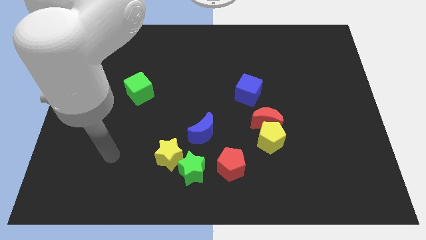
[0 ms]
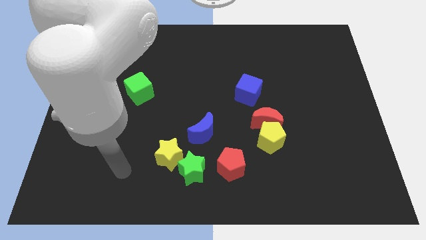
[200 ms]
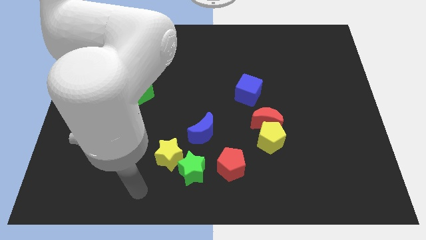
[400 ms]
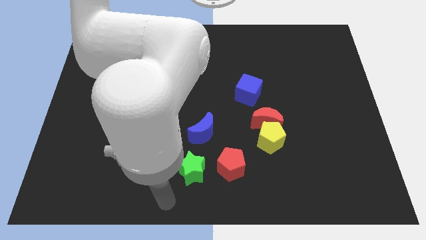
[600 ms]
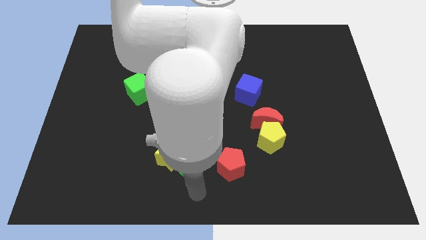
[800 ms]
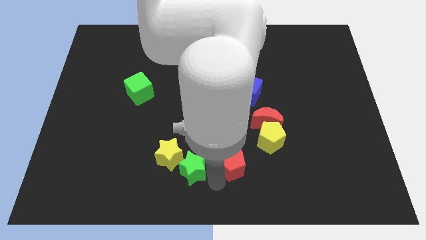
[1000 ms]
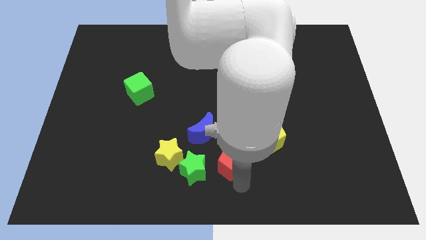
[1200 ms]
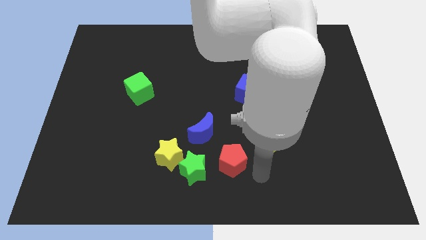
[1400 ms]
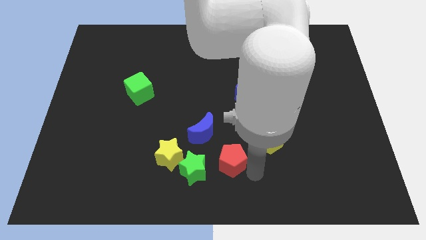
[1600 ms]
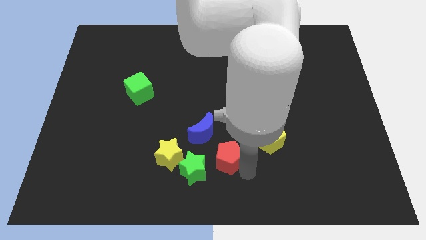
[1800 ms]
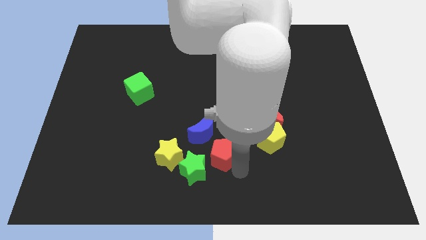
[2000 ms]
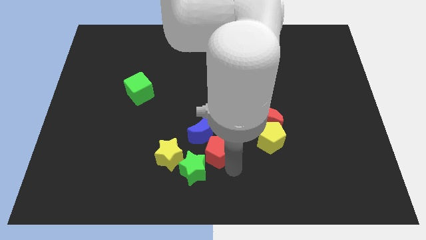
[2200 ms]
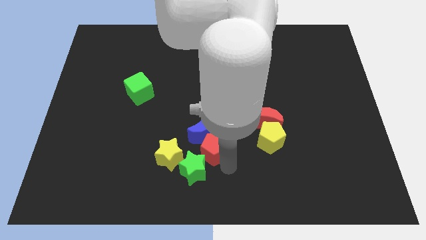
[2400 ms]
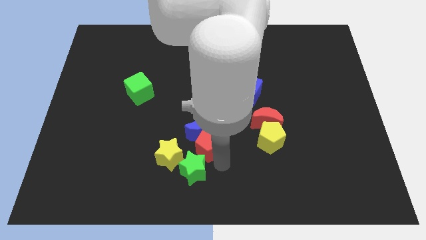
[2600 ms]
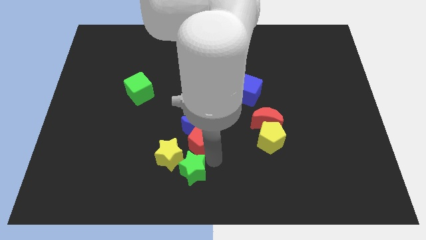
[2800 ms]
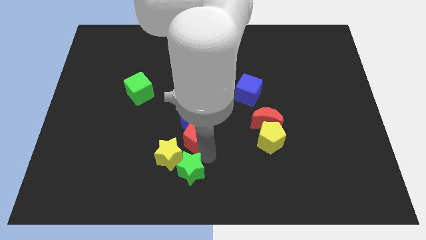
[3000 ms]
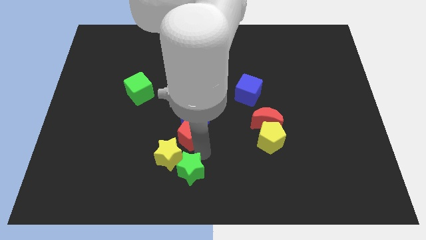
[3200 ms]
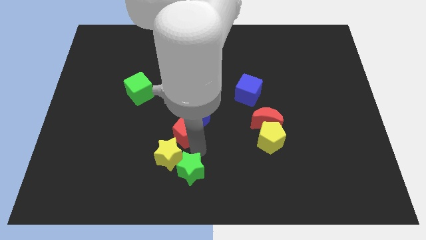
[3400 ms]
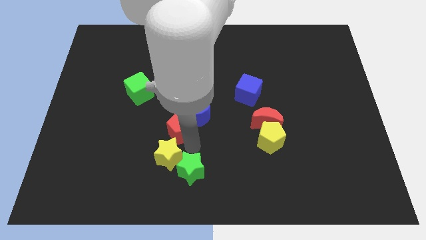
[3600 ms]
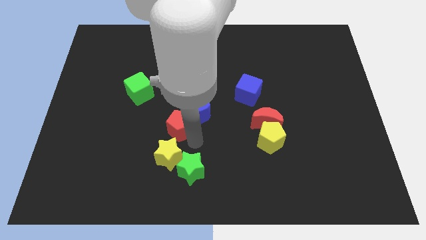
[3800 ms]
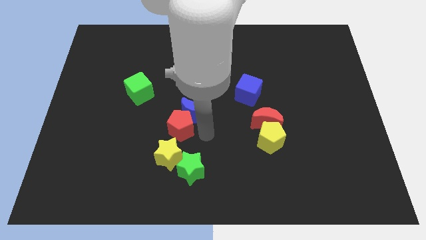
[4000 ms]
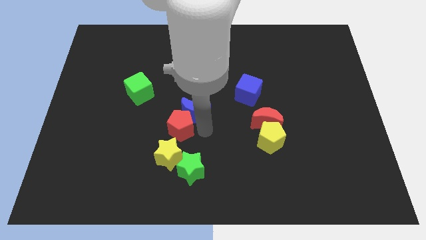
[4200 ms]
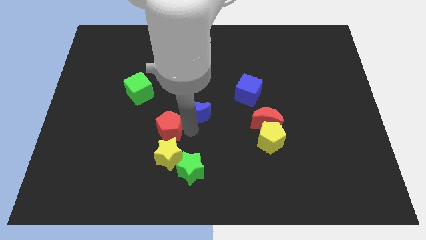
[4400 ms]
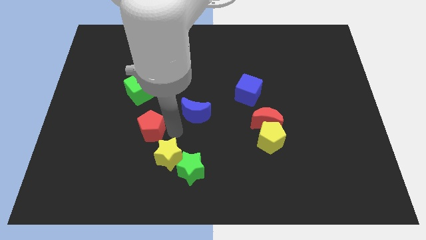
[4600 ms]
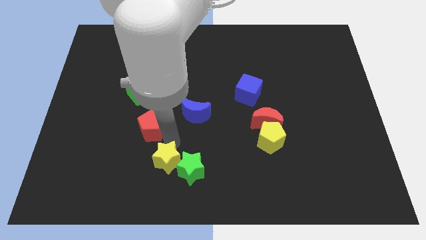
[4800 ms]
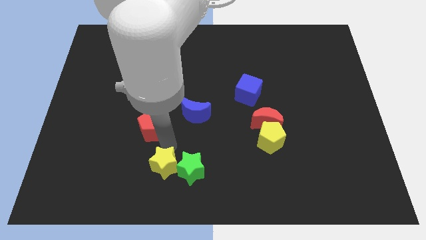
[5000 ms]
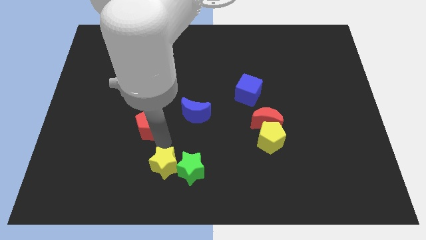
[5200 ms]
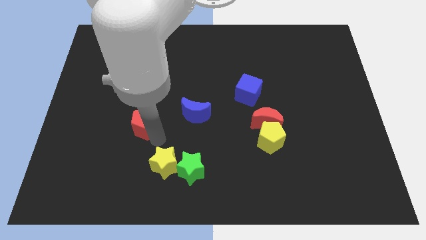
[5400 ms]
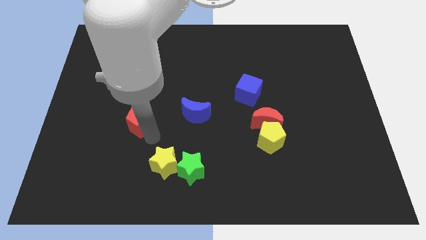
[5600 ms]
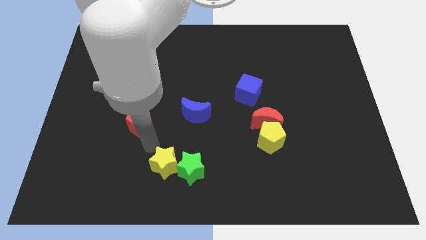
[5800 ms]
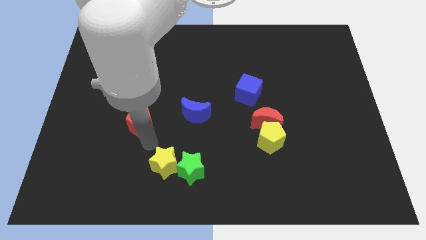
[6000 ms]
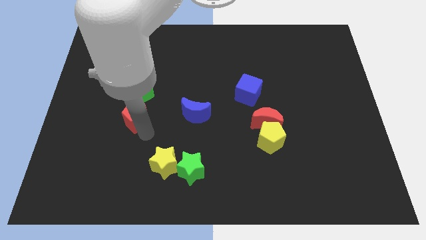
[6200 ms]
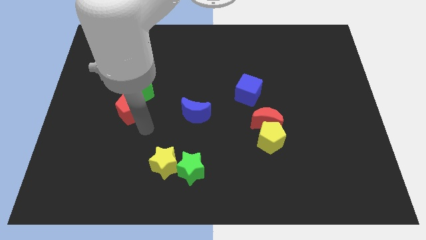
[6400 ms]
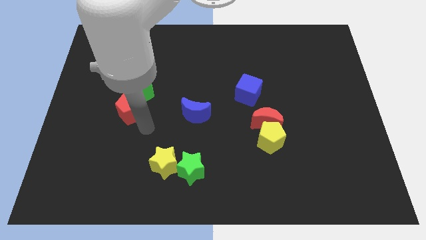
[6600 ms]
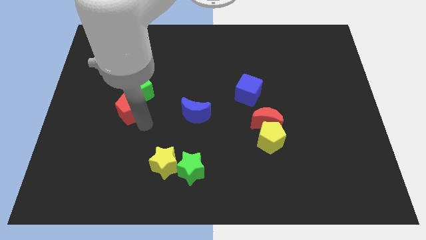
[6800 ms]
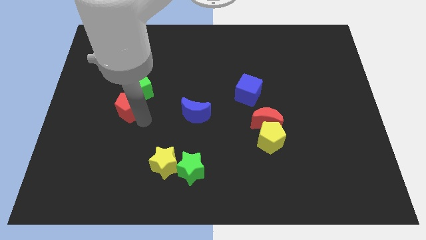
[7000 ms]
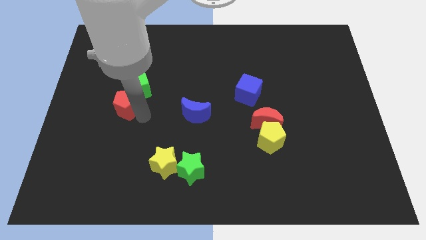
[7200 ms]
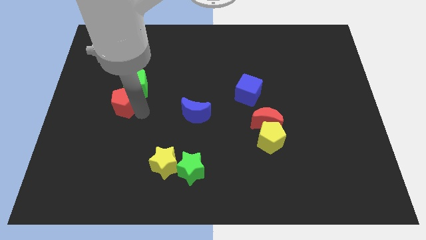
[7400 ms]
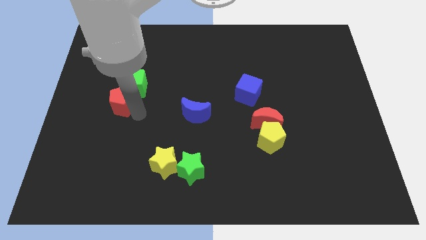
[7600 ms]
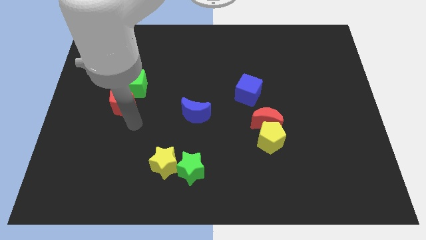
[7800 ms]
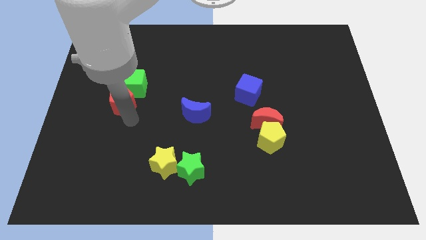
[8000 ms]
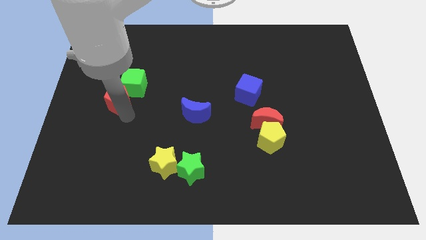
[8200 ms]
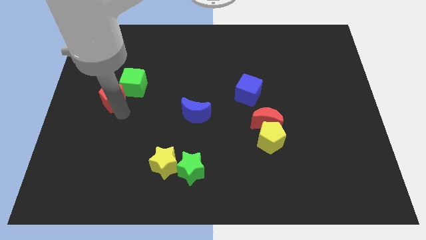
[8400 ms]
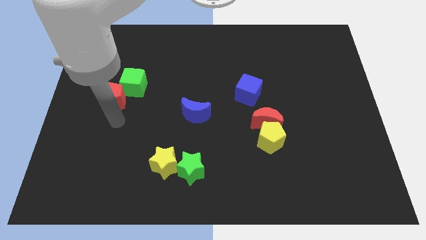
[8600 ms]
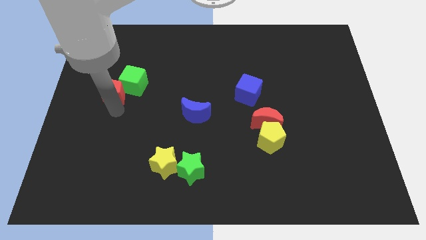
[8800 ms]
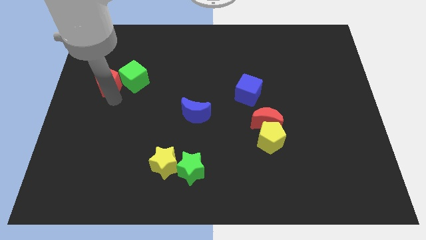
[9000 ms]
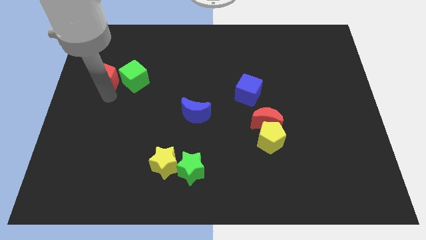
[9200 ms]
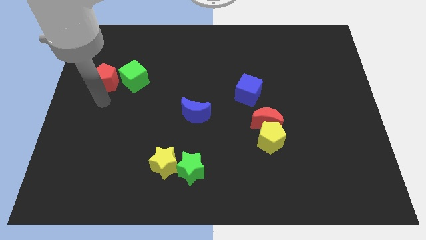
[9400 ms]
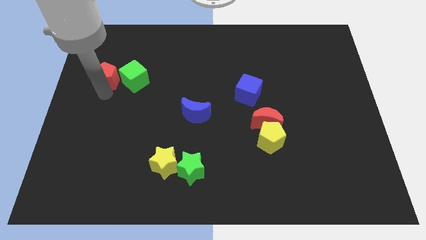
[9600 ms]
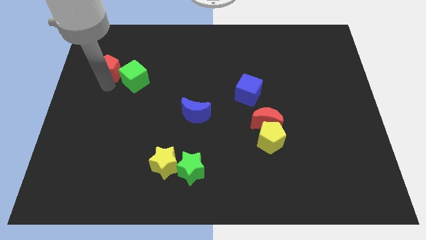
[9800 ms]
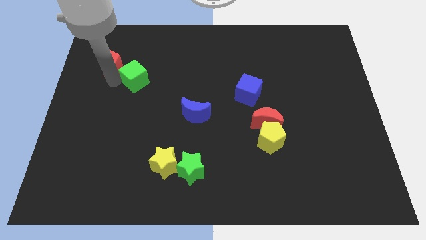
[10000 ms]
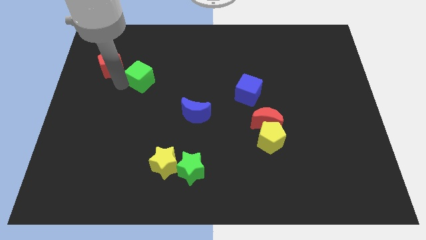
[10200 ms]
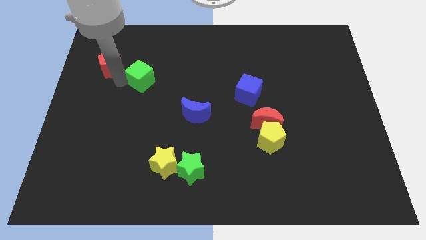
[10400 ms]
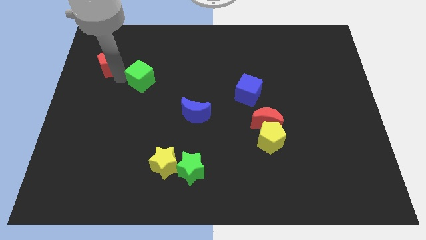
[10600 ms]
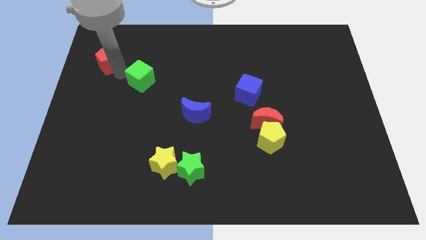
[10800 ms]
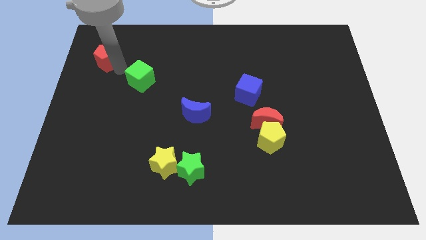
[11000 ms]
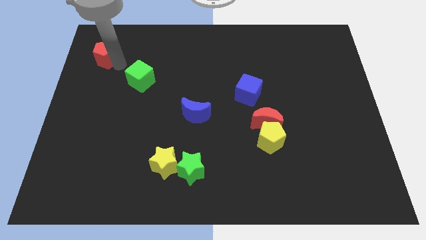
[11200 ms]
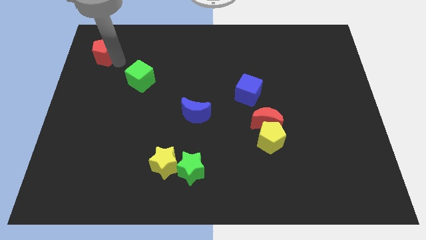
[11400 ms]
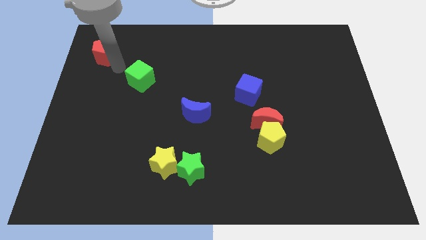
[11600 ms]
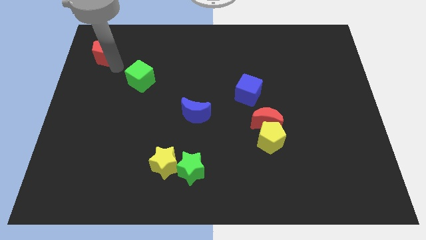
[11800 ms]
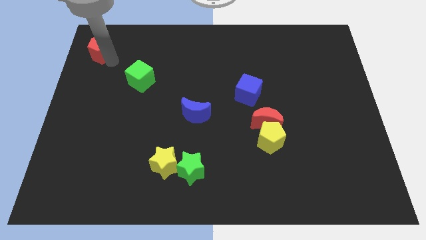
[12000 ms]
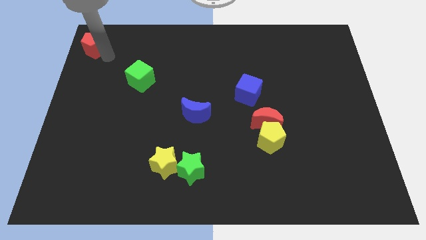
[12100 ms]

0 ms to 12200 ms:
push the red pentagon to the upper left corner

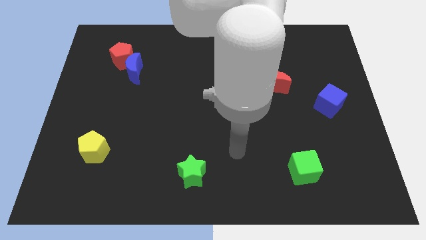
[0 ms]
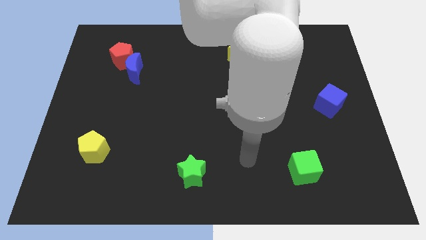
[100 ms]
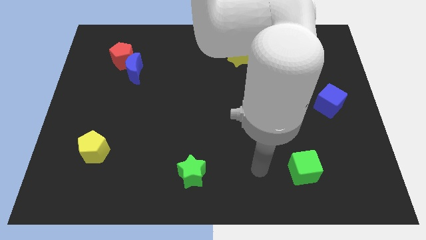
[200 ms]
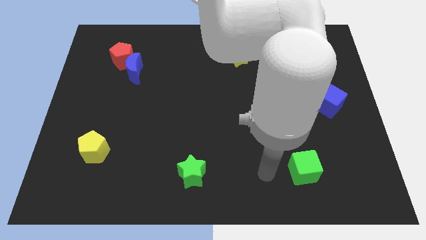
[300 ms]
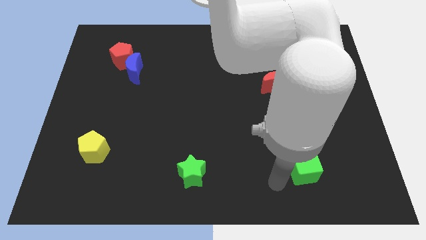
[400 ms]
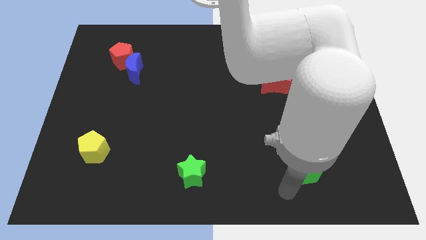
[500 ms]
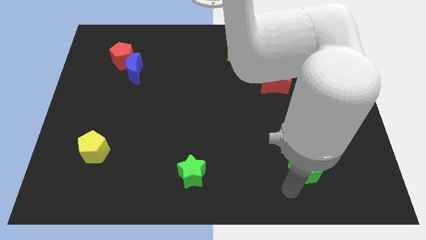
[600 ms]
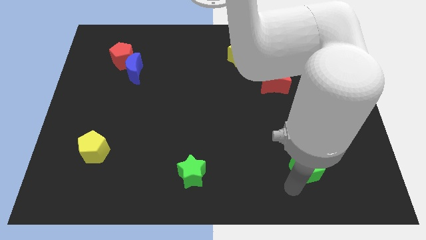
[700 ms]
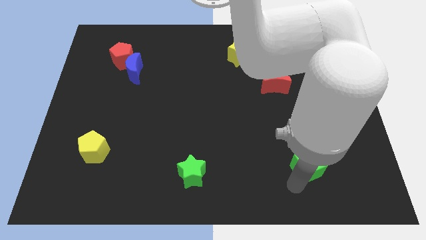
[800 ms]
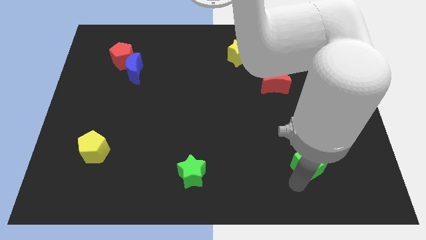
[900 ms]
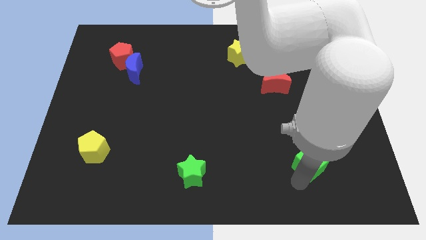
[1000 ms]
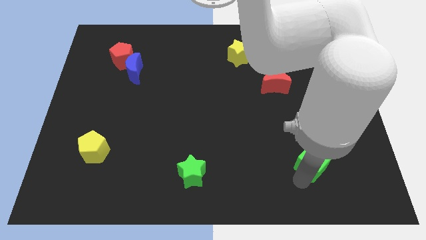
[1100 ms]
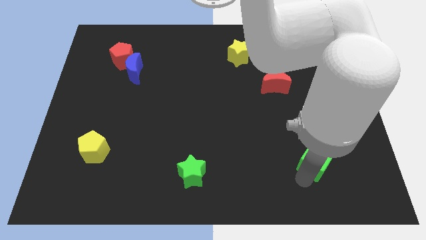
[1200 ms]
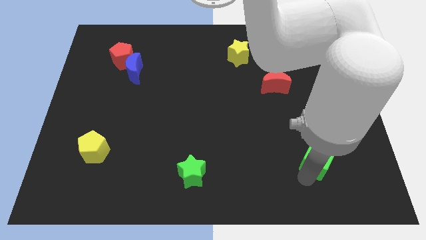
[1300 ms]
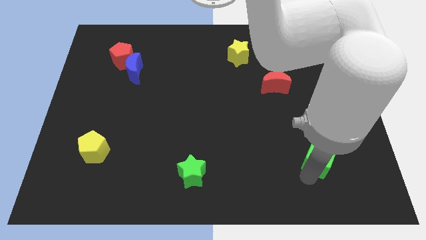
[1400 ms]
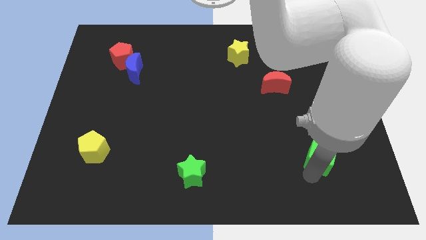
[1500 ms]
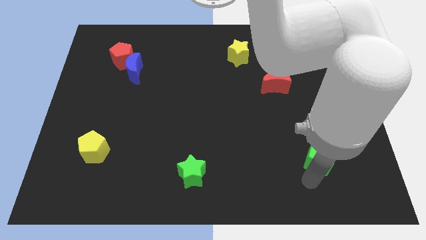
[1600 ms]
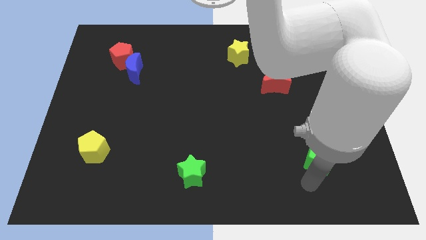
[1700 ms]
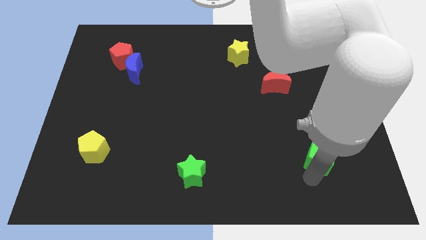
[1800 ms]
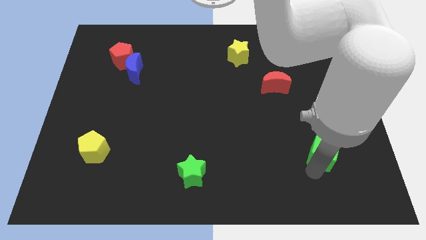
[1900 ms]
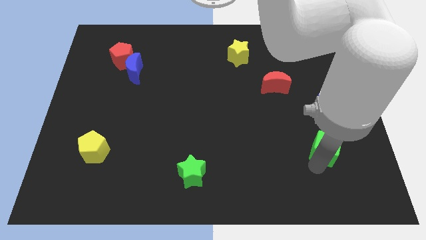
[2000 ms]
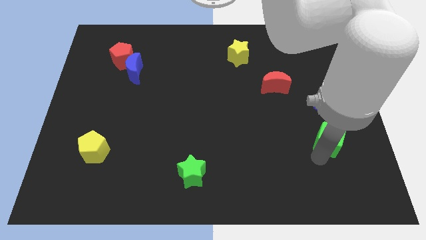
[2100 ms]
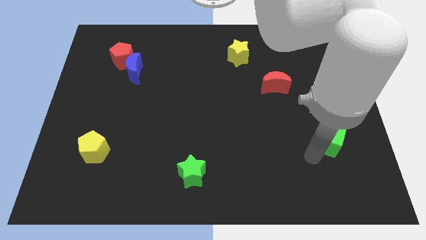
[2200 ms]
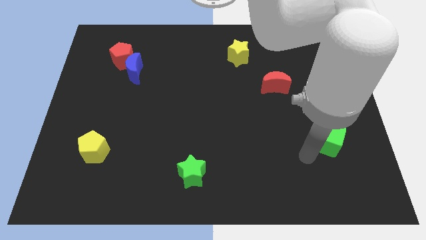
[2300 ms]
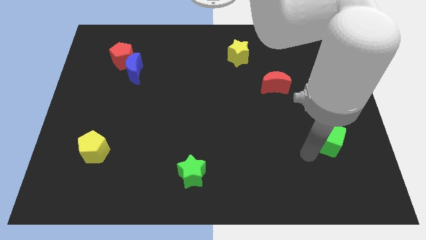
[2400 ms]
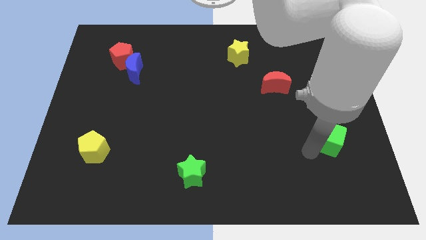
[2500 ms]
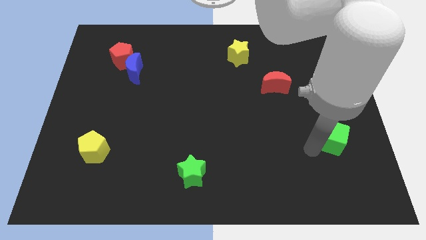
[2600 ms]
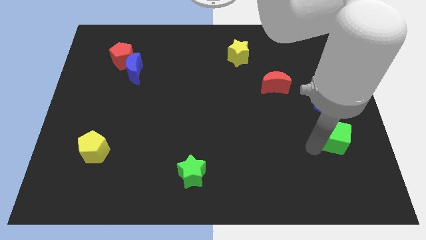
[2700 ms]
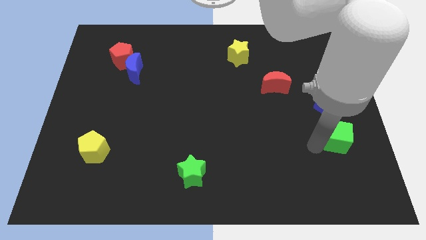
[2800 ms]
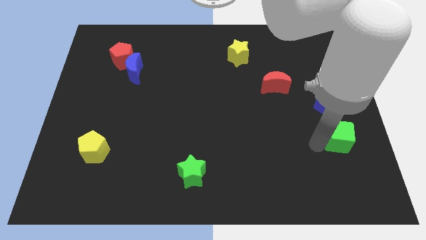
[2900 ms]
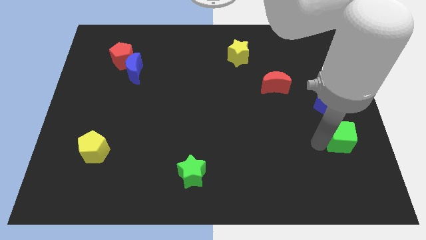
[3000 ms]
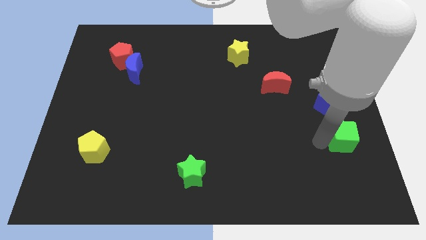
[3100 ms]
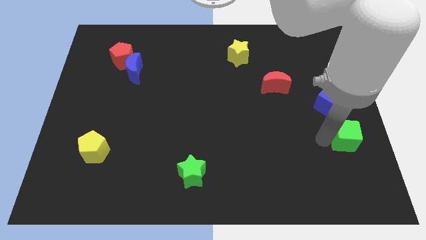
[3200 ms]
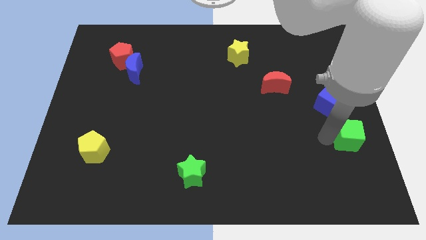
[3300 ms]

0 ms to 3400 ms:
push the green cube to the center right
